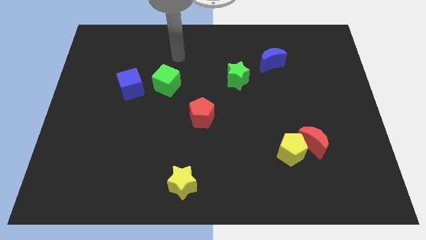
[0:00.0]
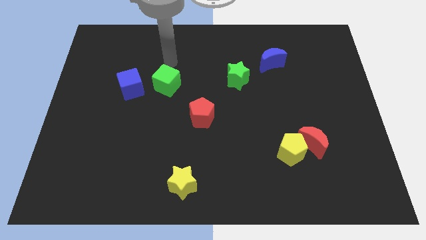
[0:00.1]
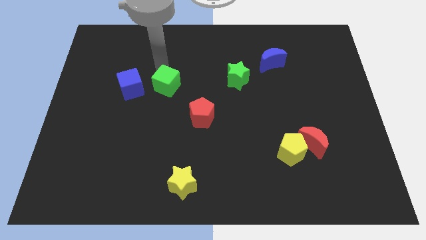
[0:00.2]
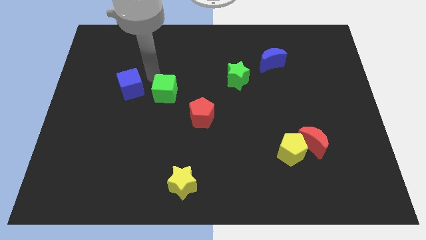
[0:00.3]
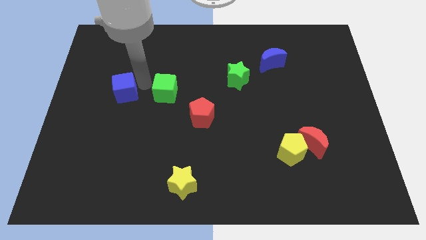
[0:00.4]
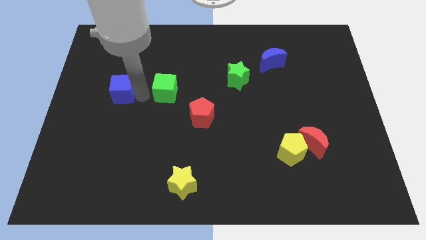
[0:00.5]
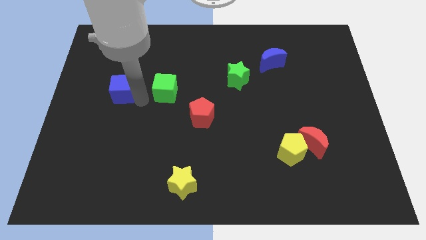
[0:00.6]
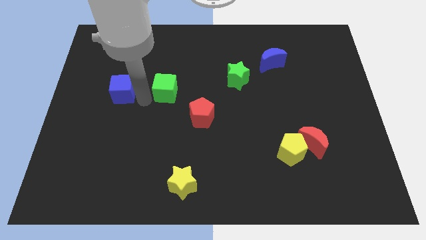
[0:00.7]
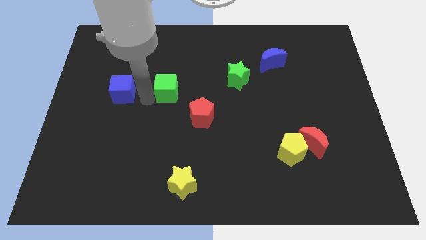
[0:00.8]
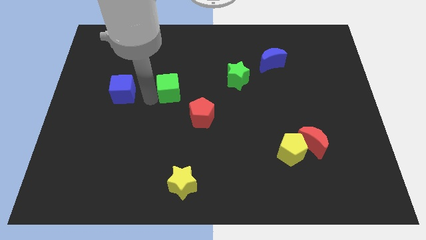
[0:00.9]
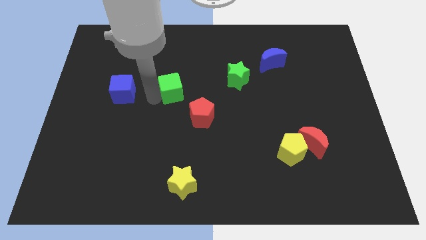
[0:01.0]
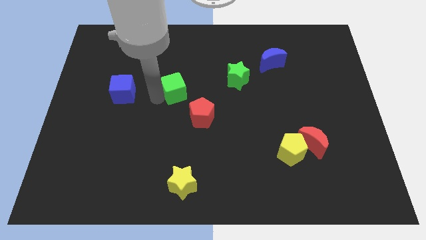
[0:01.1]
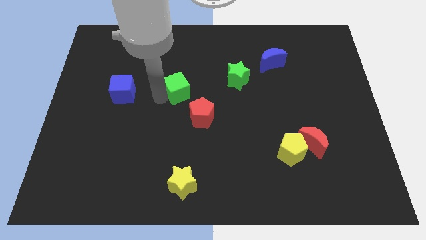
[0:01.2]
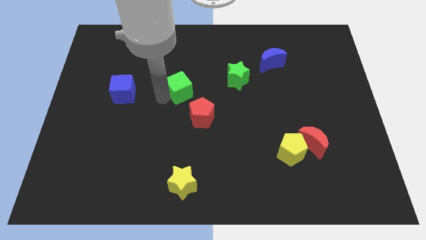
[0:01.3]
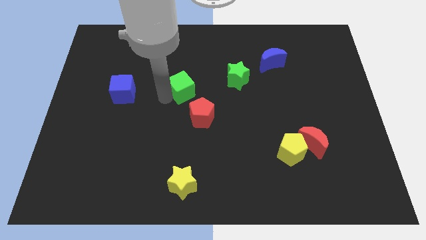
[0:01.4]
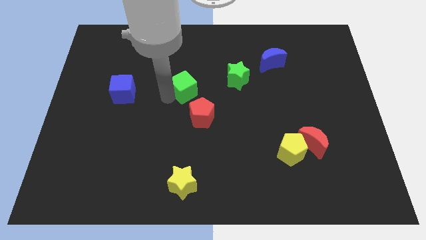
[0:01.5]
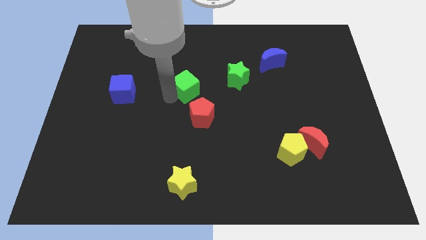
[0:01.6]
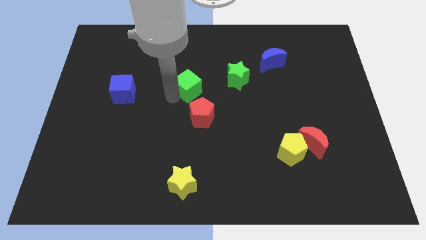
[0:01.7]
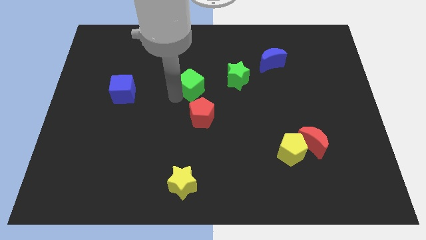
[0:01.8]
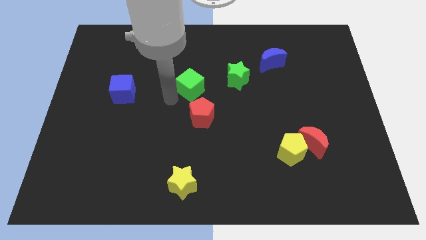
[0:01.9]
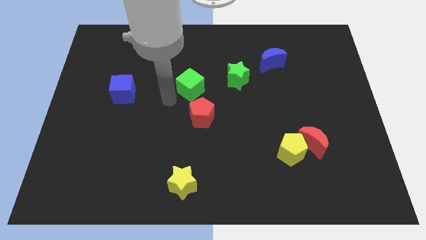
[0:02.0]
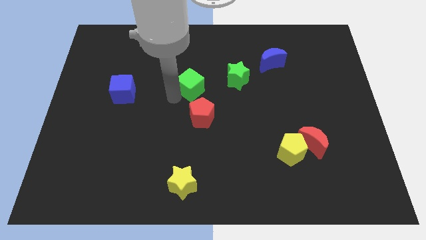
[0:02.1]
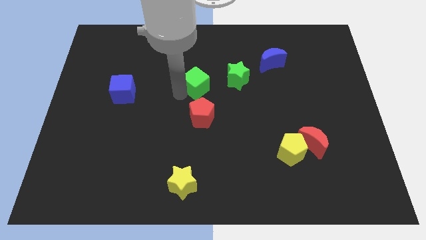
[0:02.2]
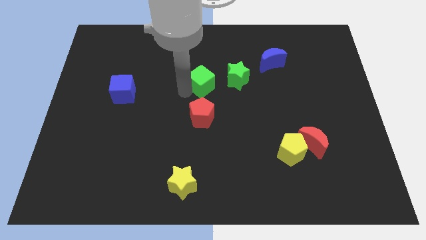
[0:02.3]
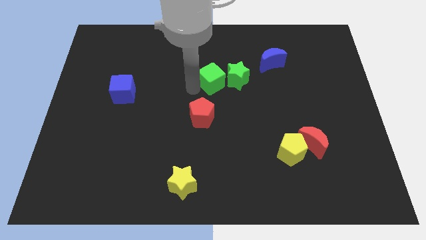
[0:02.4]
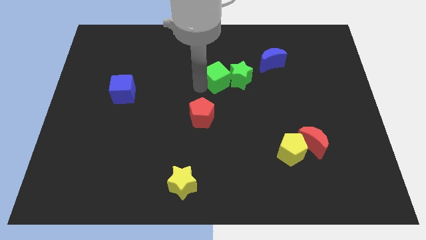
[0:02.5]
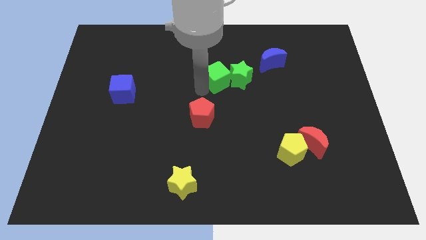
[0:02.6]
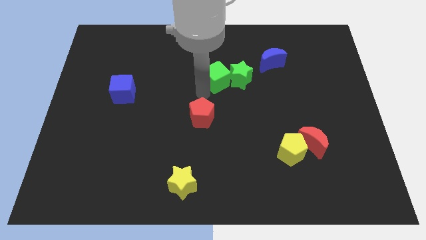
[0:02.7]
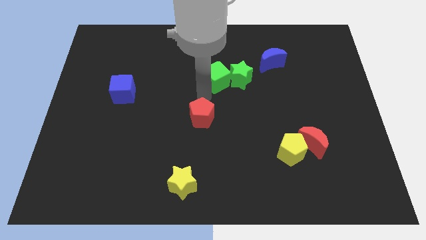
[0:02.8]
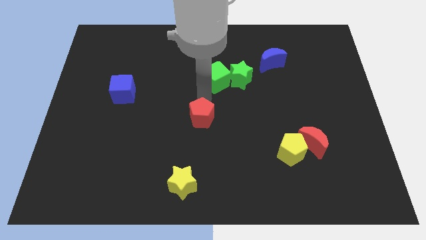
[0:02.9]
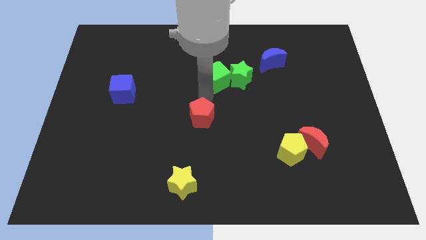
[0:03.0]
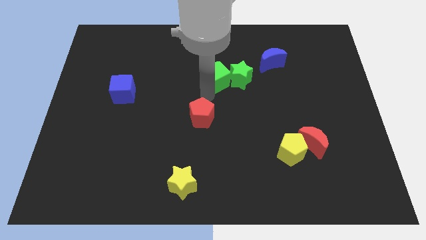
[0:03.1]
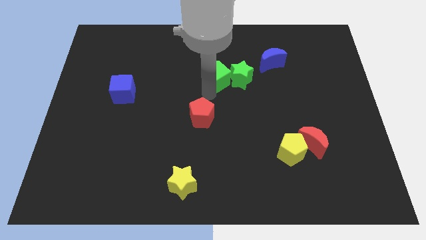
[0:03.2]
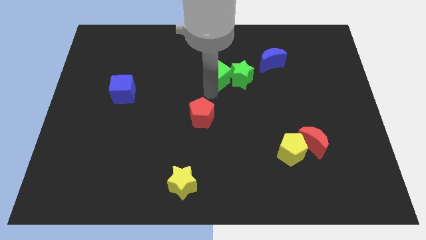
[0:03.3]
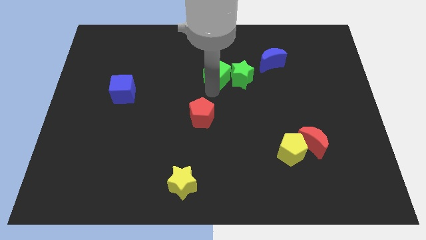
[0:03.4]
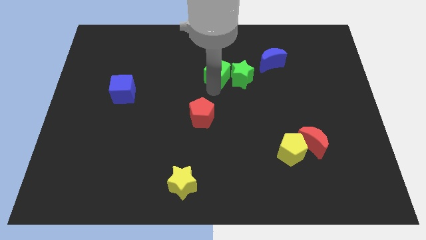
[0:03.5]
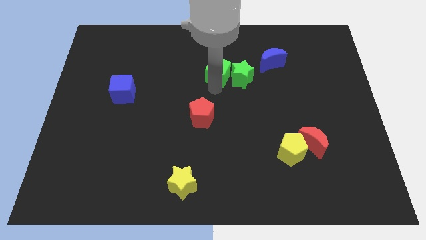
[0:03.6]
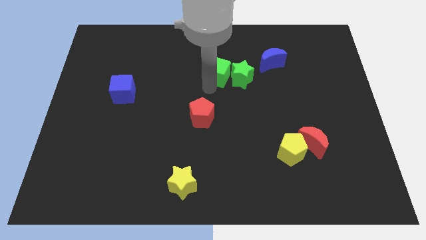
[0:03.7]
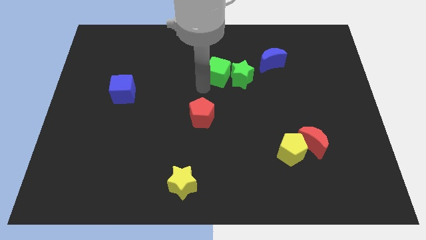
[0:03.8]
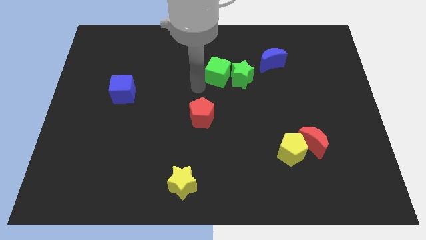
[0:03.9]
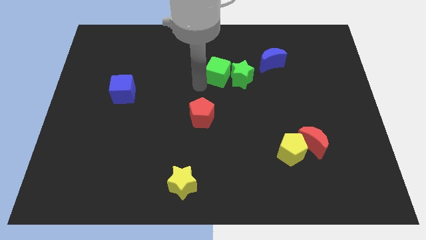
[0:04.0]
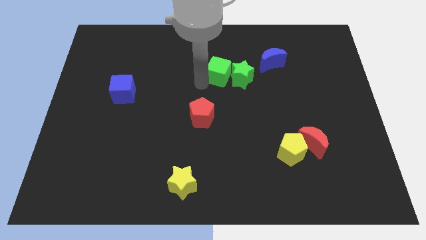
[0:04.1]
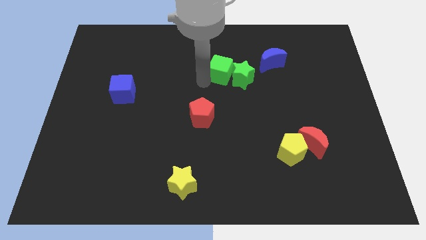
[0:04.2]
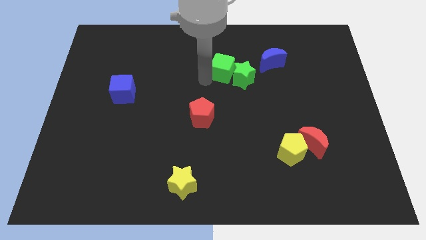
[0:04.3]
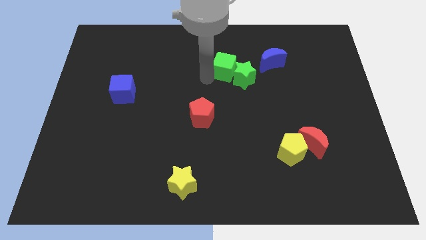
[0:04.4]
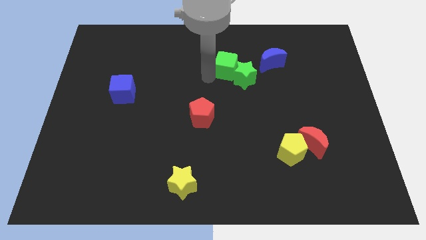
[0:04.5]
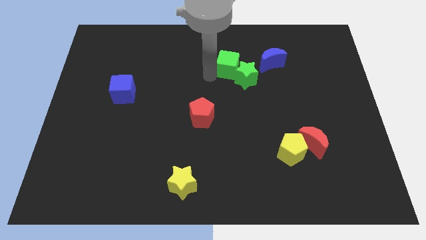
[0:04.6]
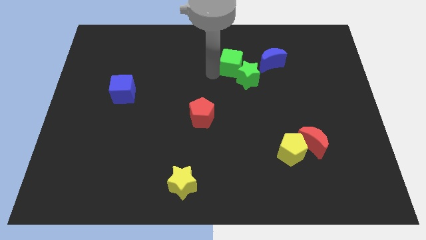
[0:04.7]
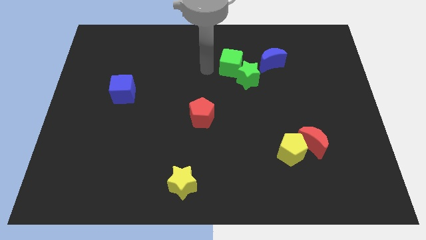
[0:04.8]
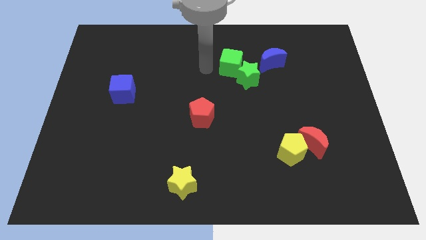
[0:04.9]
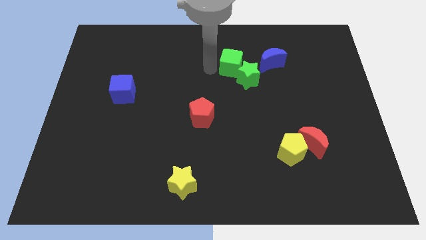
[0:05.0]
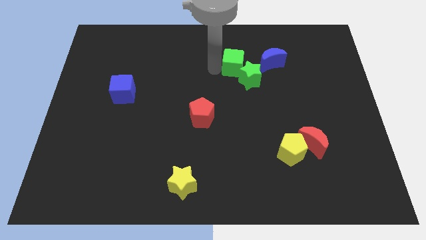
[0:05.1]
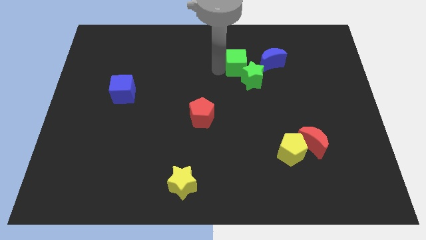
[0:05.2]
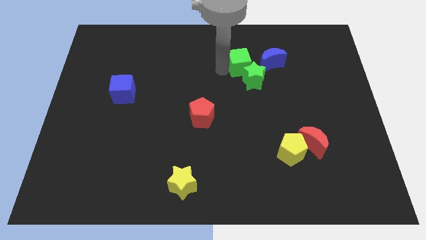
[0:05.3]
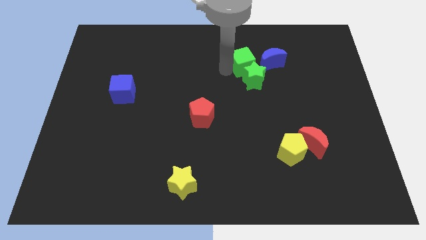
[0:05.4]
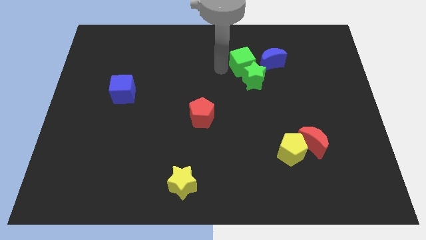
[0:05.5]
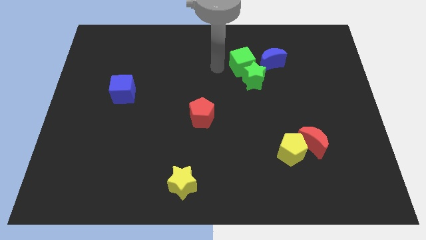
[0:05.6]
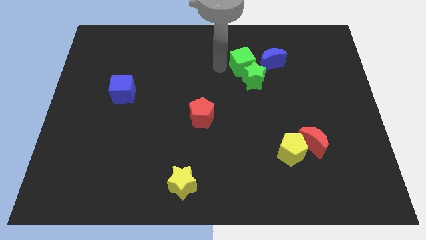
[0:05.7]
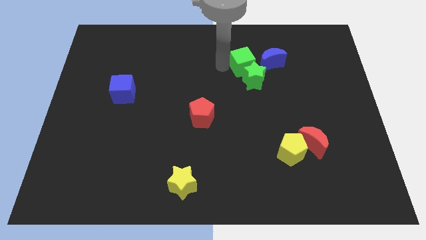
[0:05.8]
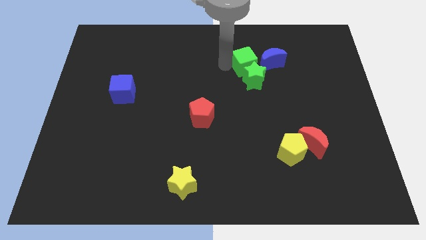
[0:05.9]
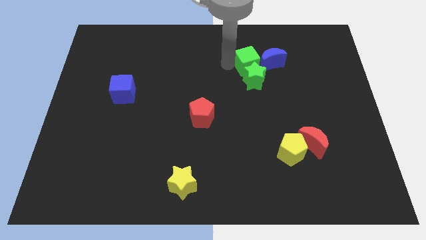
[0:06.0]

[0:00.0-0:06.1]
put the green cube next to the blue moon

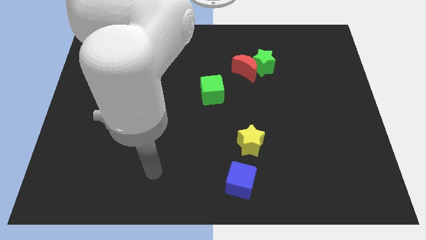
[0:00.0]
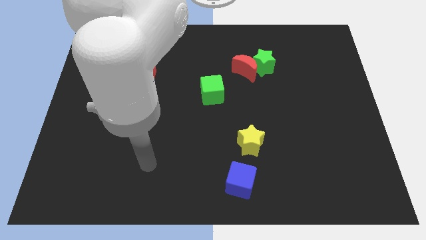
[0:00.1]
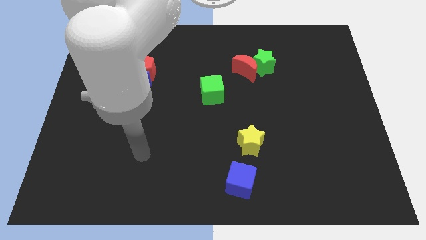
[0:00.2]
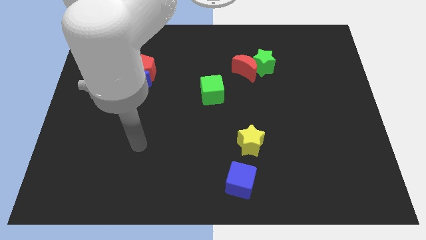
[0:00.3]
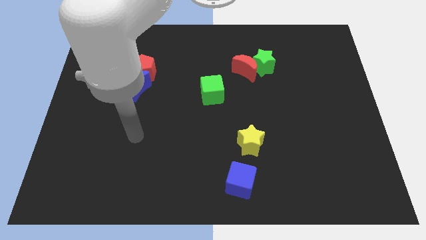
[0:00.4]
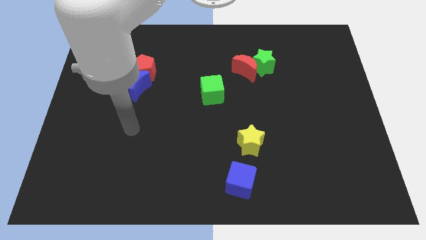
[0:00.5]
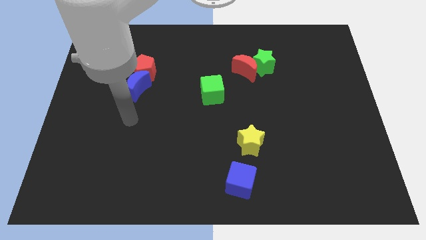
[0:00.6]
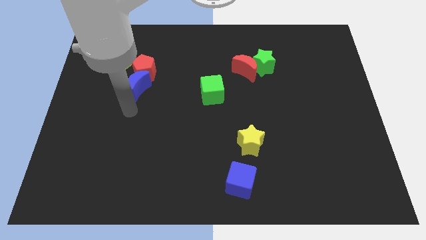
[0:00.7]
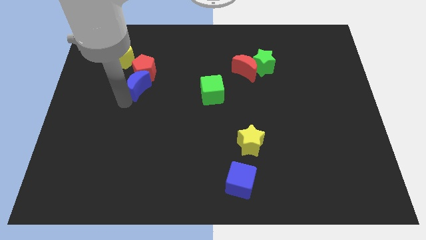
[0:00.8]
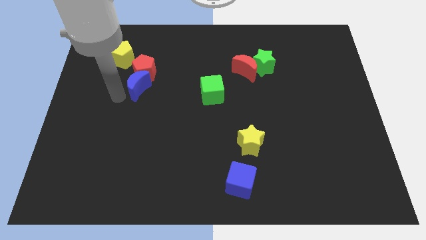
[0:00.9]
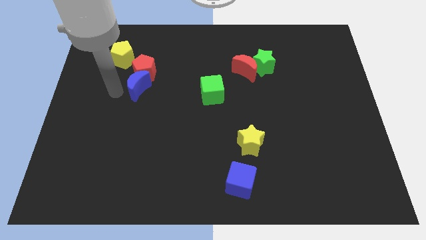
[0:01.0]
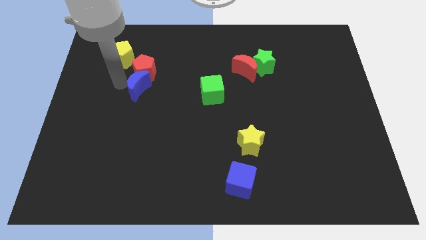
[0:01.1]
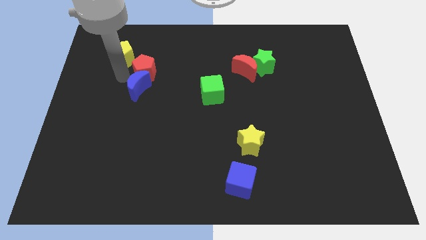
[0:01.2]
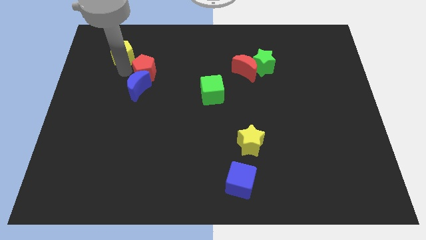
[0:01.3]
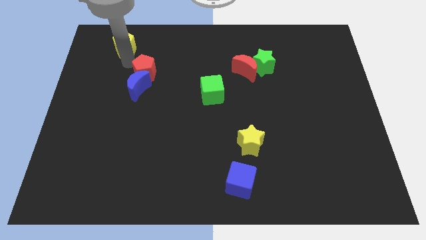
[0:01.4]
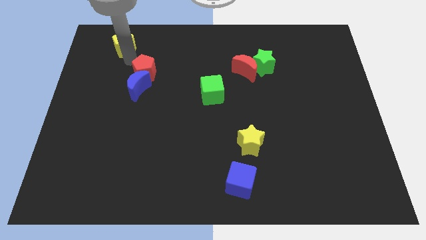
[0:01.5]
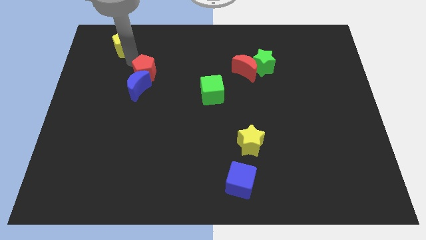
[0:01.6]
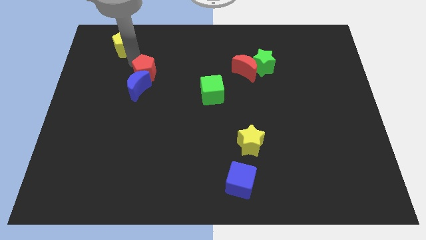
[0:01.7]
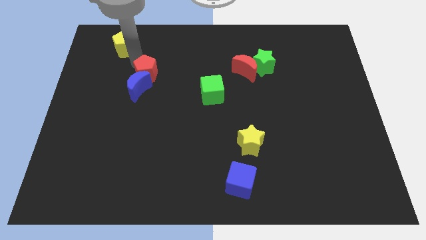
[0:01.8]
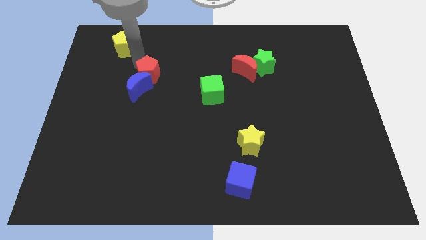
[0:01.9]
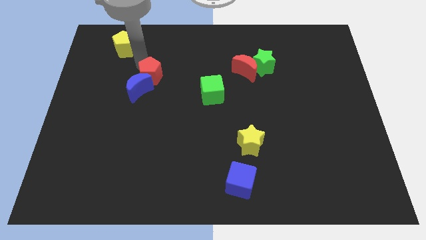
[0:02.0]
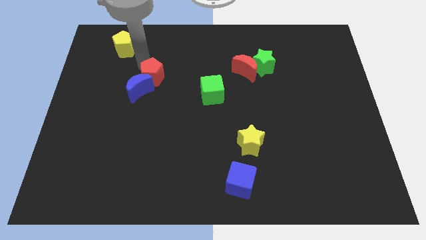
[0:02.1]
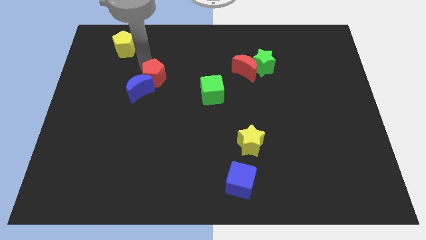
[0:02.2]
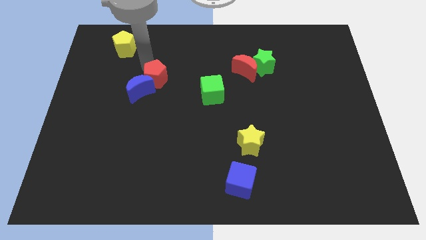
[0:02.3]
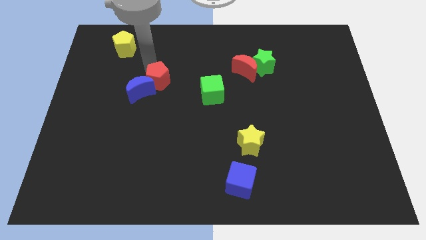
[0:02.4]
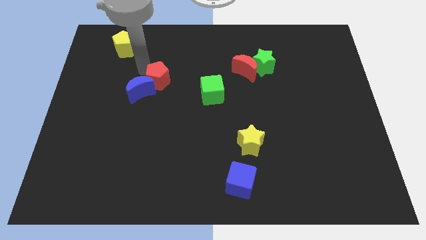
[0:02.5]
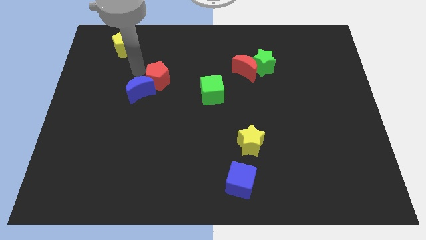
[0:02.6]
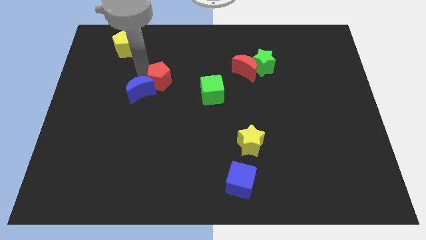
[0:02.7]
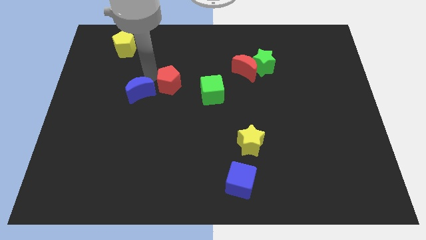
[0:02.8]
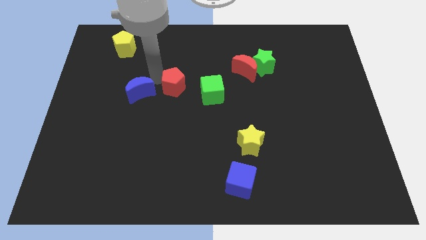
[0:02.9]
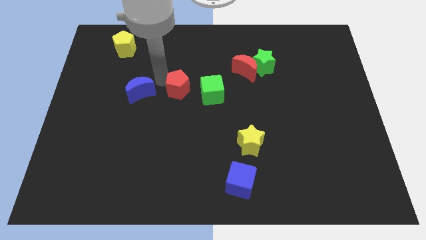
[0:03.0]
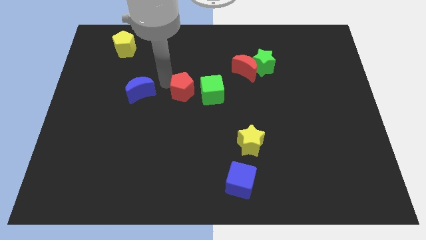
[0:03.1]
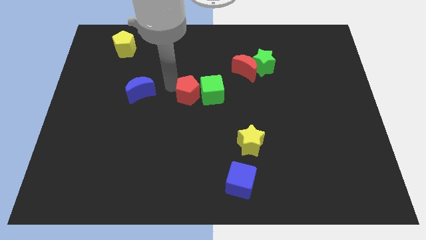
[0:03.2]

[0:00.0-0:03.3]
move the red pentagon to the green cube
